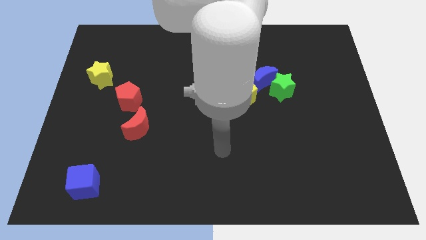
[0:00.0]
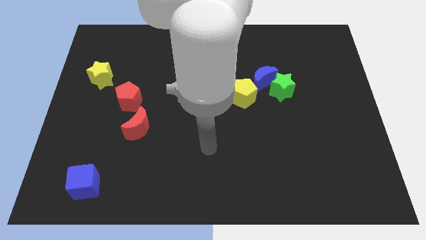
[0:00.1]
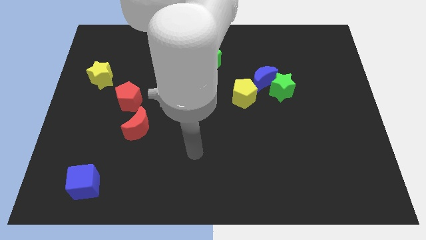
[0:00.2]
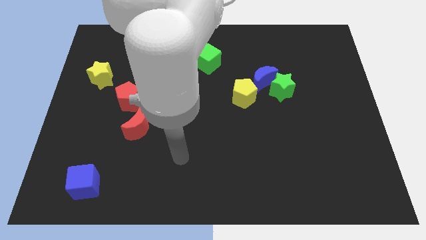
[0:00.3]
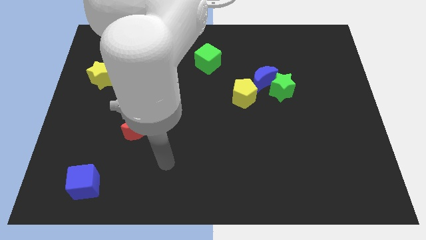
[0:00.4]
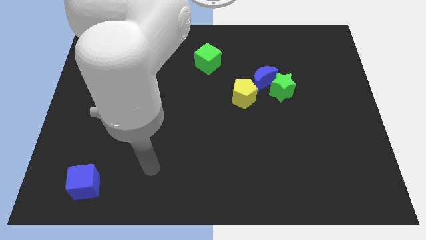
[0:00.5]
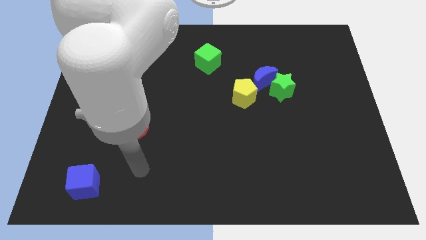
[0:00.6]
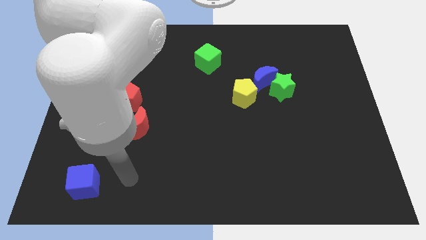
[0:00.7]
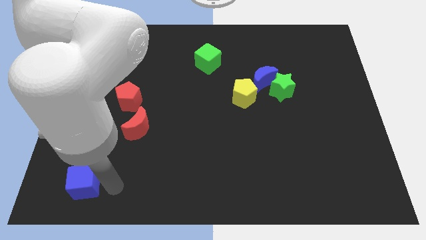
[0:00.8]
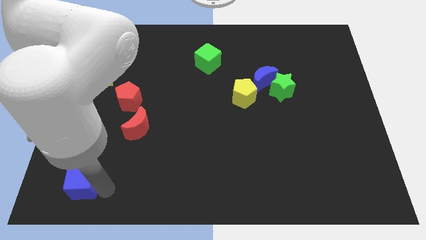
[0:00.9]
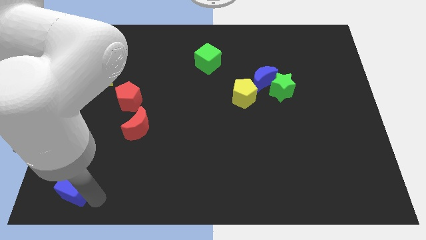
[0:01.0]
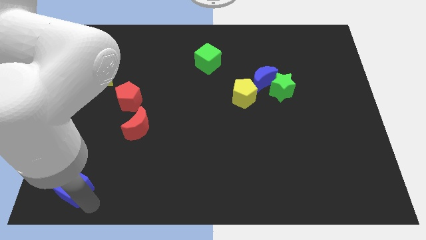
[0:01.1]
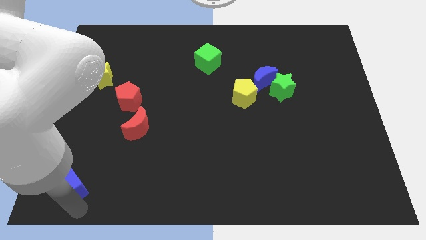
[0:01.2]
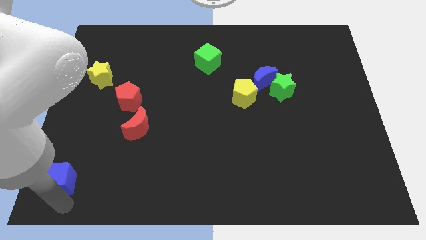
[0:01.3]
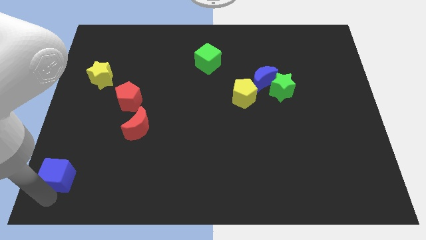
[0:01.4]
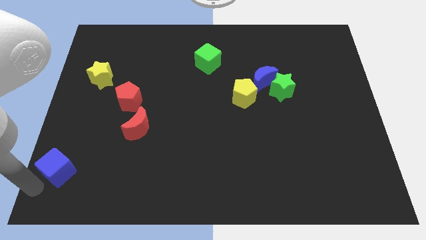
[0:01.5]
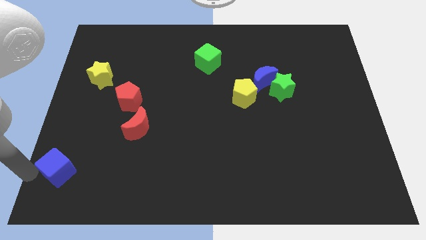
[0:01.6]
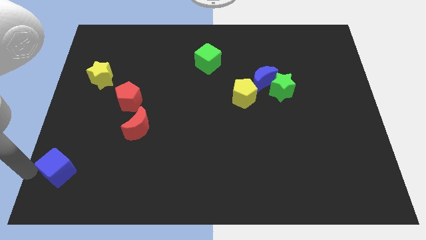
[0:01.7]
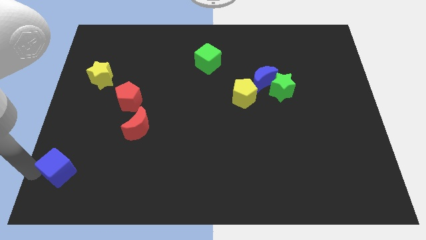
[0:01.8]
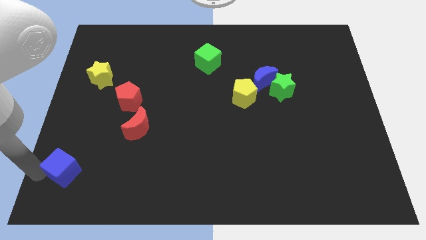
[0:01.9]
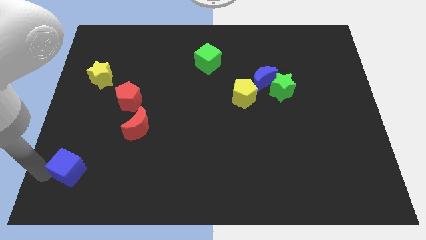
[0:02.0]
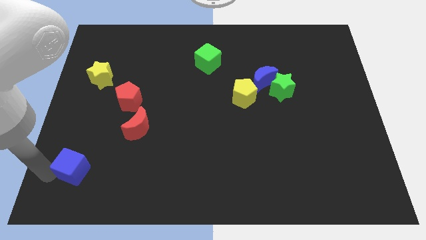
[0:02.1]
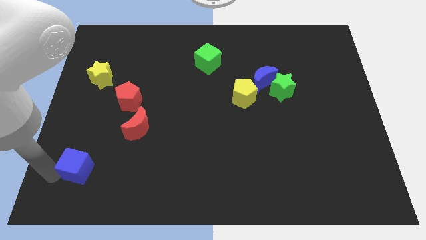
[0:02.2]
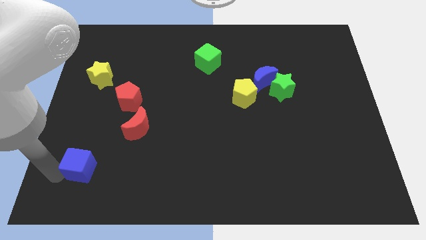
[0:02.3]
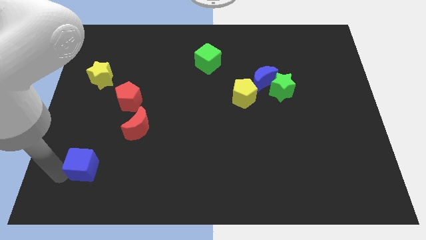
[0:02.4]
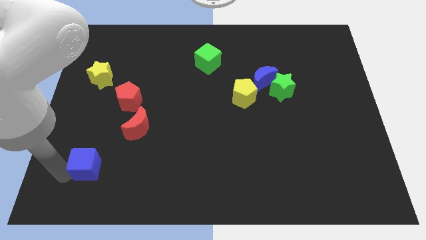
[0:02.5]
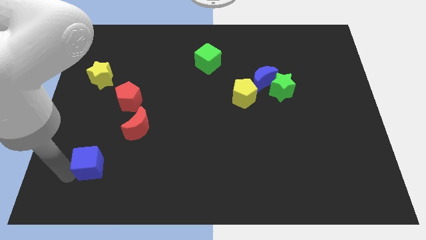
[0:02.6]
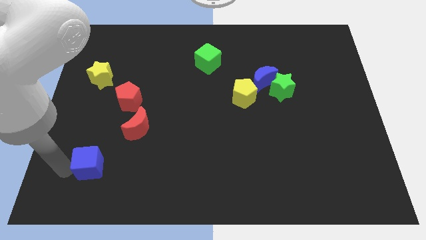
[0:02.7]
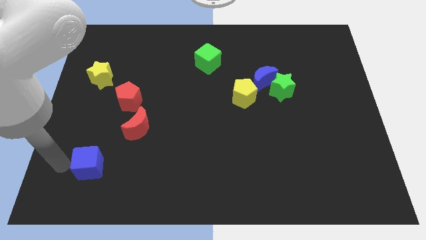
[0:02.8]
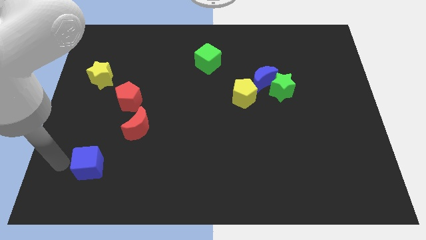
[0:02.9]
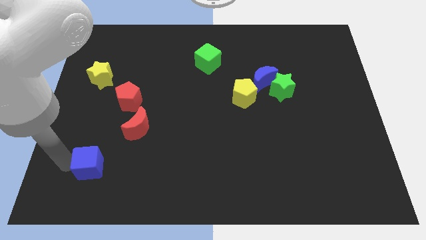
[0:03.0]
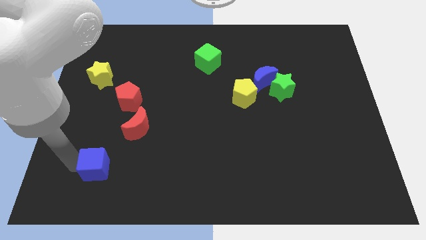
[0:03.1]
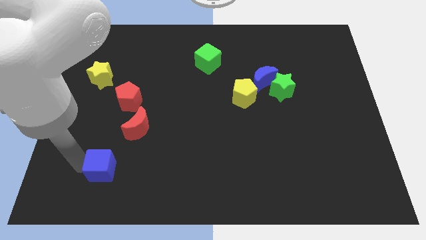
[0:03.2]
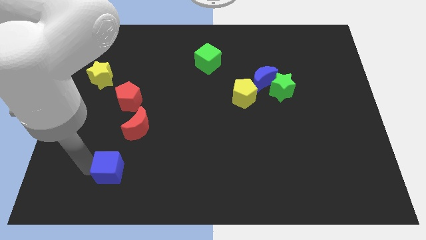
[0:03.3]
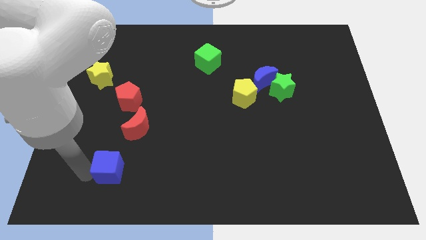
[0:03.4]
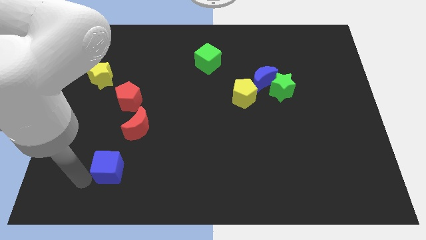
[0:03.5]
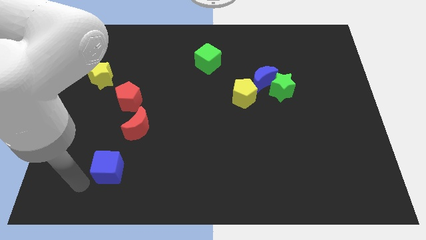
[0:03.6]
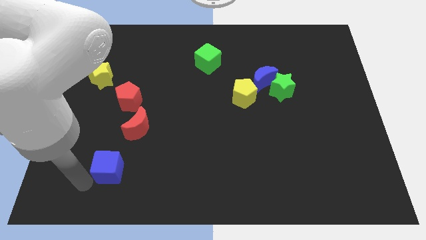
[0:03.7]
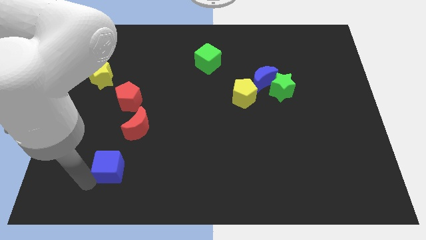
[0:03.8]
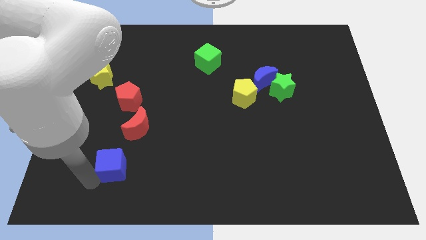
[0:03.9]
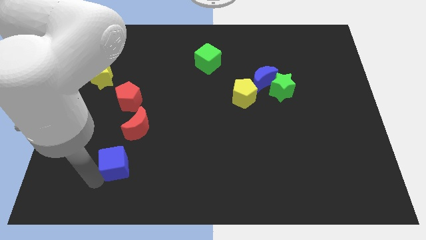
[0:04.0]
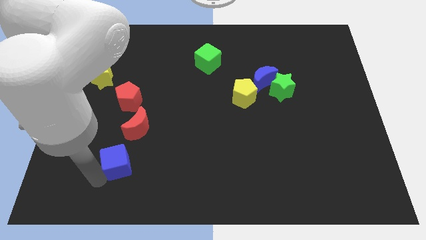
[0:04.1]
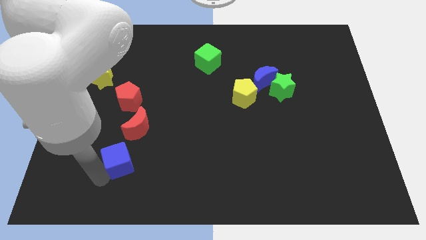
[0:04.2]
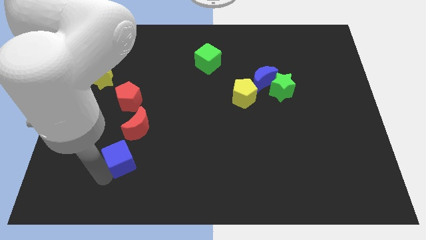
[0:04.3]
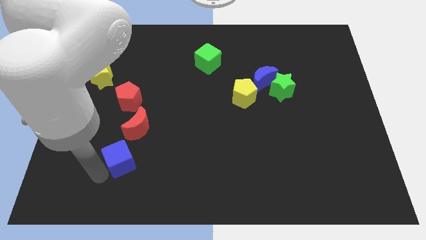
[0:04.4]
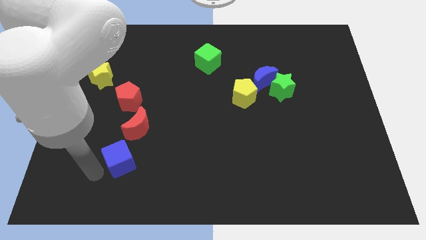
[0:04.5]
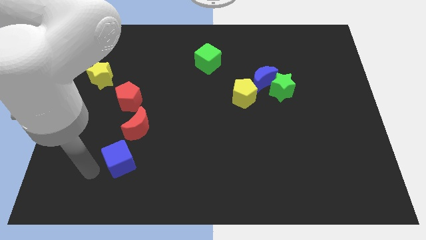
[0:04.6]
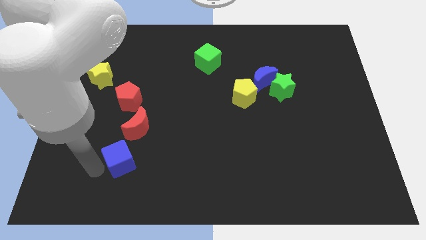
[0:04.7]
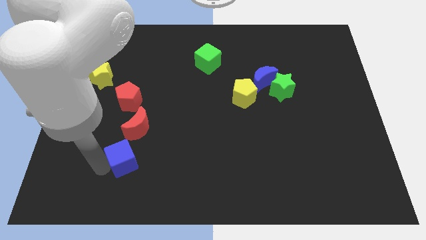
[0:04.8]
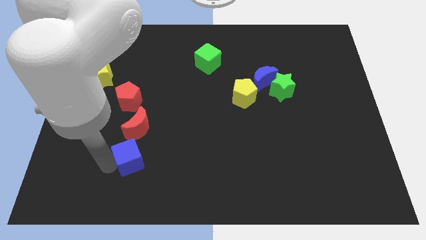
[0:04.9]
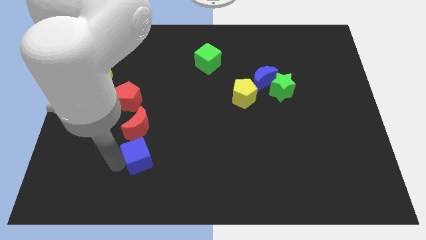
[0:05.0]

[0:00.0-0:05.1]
slide the blue cube diagonally down and to the right of the red moon

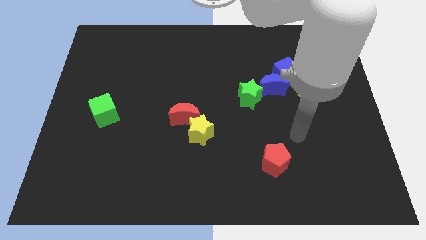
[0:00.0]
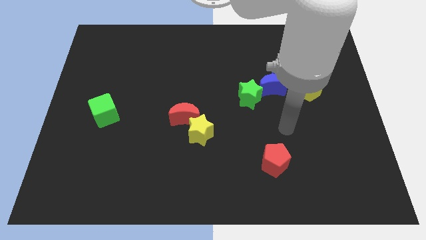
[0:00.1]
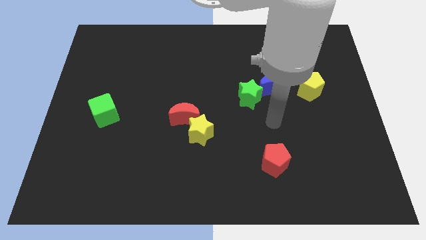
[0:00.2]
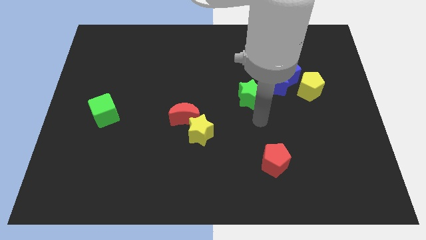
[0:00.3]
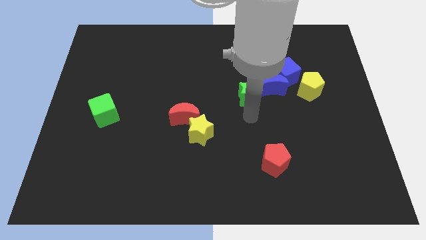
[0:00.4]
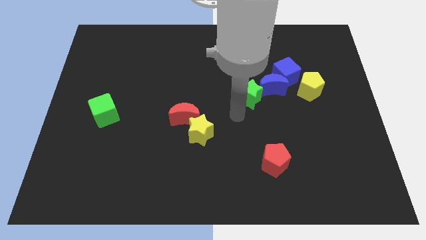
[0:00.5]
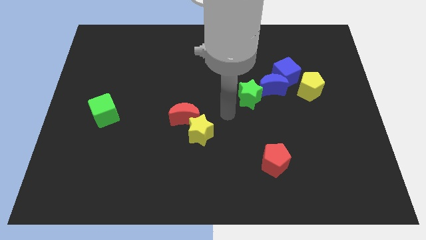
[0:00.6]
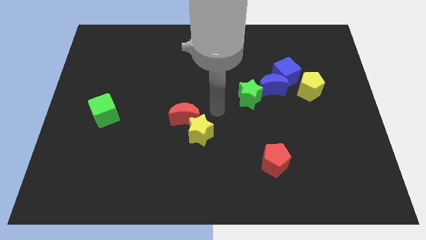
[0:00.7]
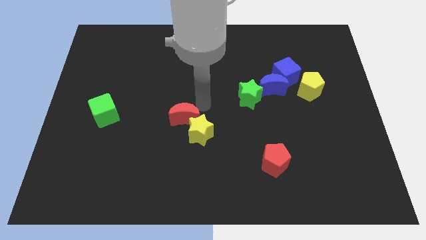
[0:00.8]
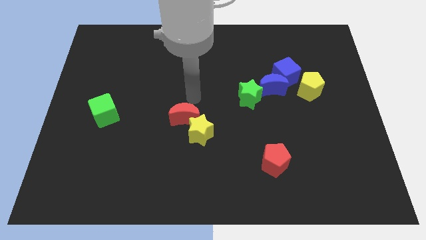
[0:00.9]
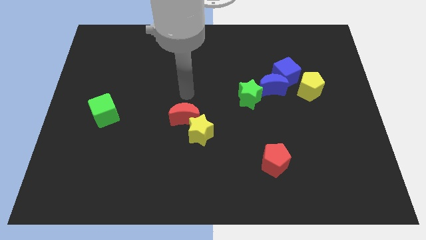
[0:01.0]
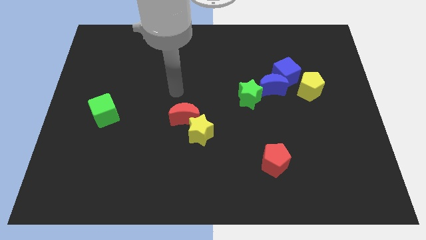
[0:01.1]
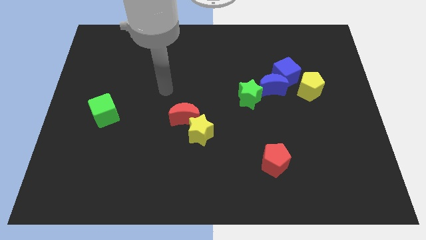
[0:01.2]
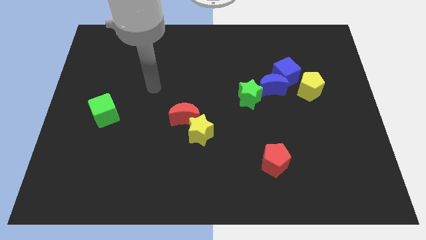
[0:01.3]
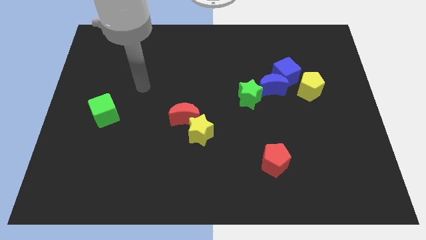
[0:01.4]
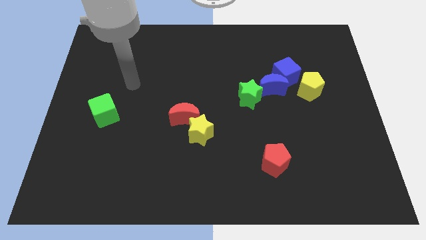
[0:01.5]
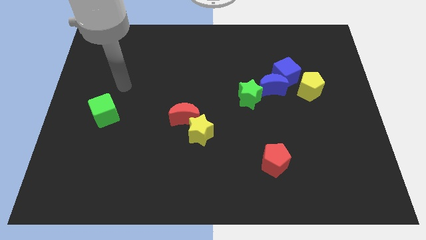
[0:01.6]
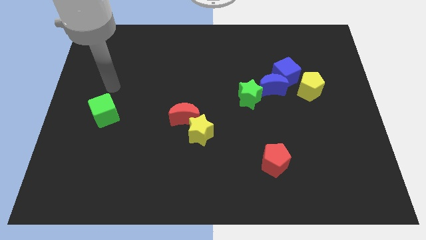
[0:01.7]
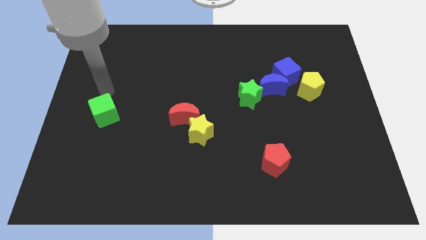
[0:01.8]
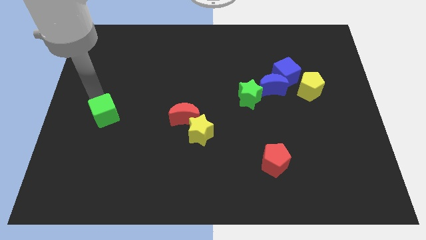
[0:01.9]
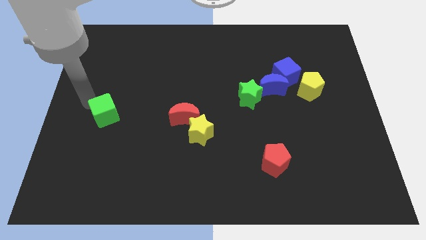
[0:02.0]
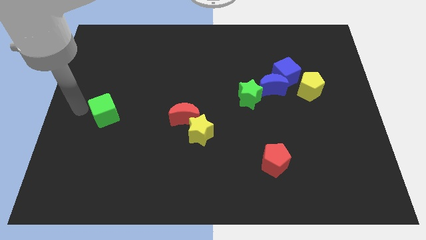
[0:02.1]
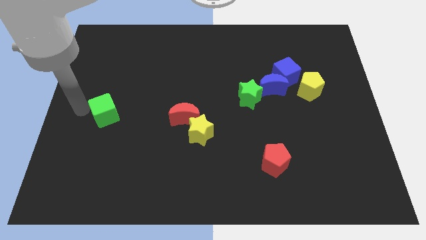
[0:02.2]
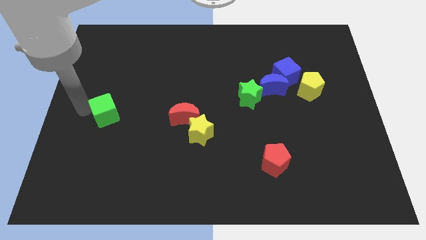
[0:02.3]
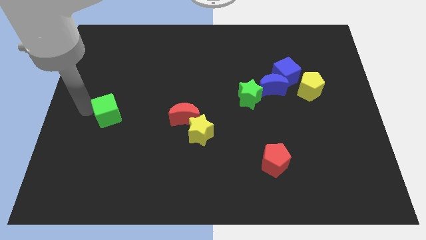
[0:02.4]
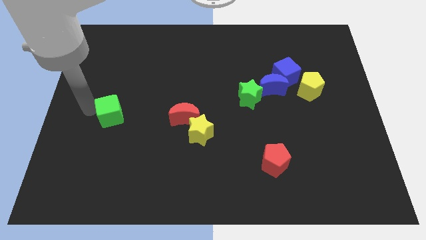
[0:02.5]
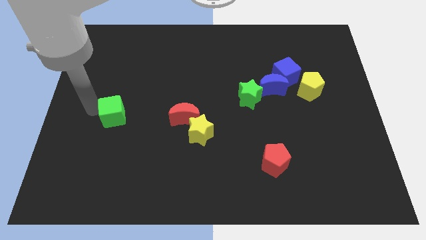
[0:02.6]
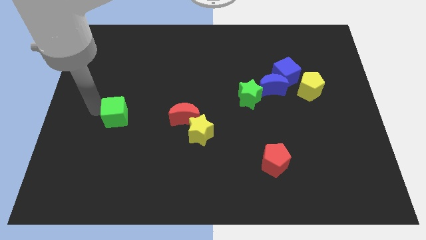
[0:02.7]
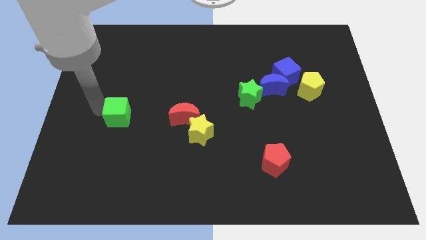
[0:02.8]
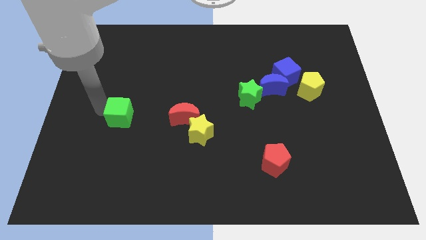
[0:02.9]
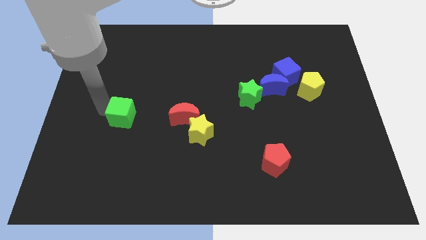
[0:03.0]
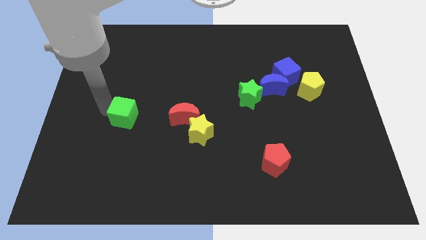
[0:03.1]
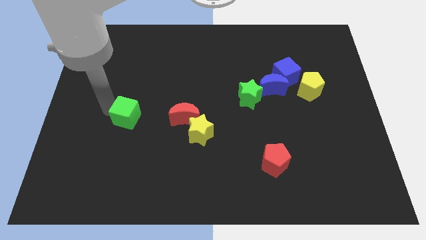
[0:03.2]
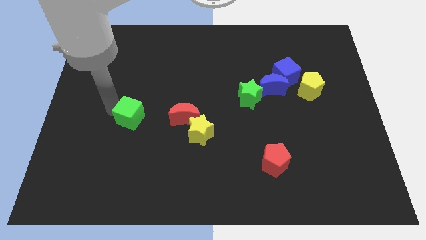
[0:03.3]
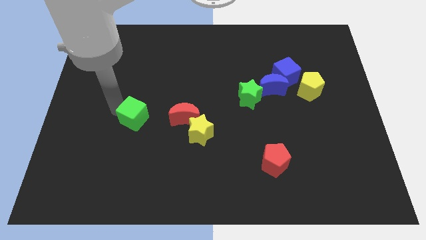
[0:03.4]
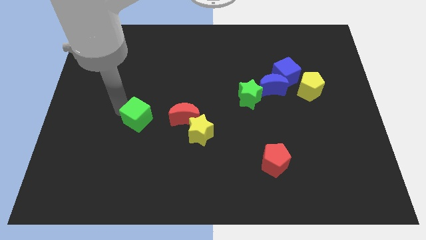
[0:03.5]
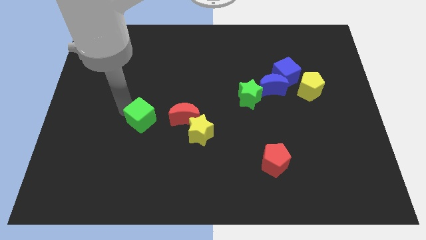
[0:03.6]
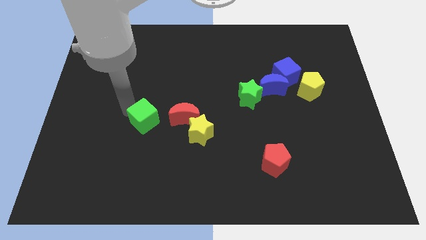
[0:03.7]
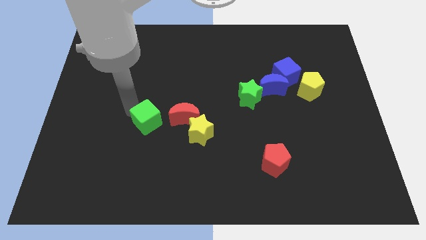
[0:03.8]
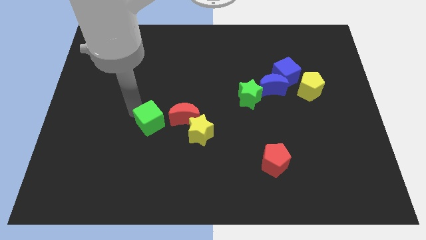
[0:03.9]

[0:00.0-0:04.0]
push the green cube to the bottom left of the red moon
